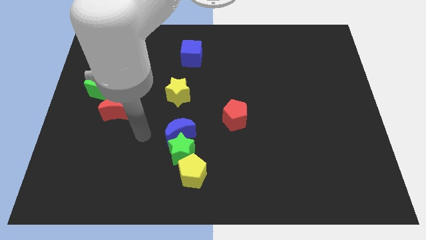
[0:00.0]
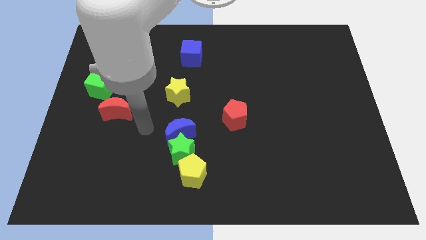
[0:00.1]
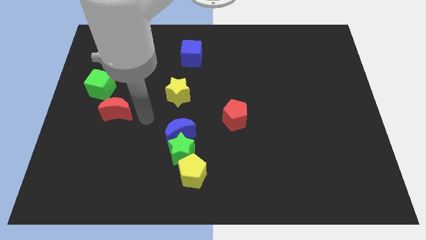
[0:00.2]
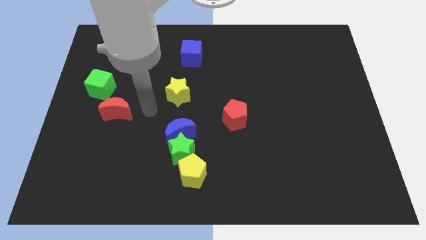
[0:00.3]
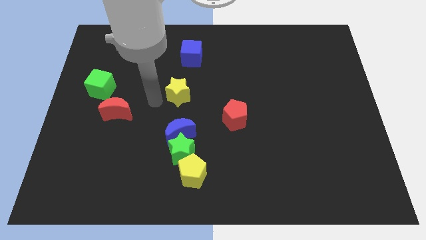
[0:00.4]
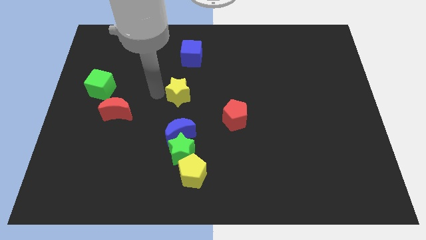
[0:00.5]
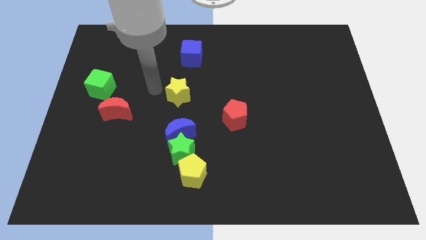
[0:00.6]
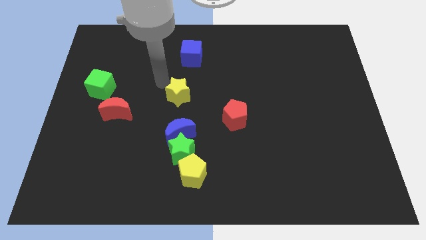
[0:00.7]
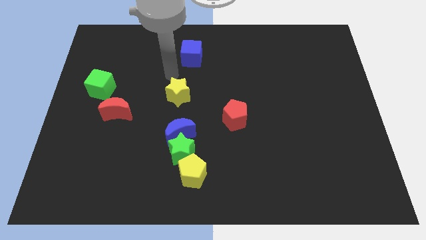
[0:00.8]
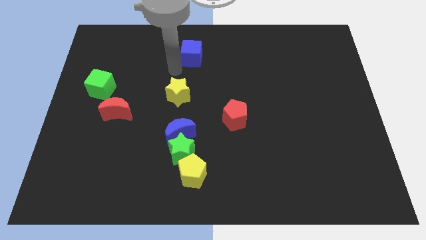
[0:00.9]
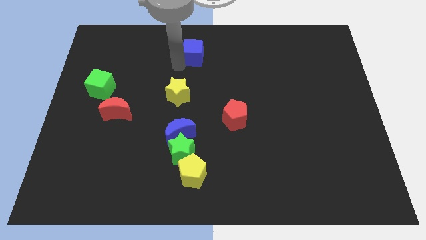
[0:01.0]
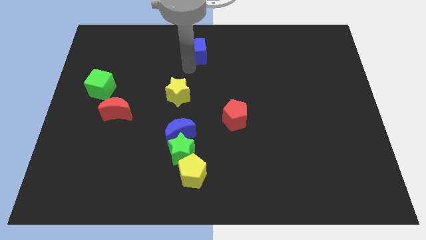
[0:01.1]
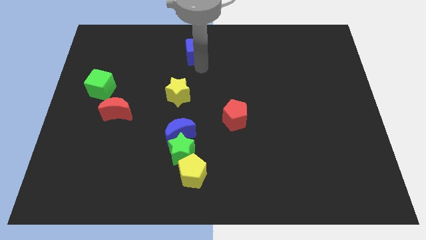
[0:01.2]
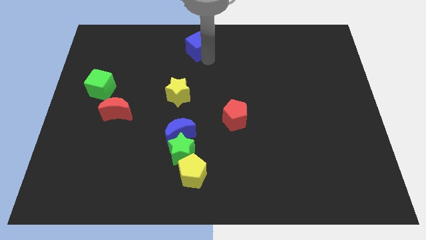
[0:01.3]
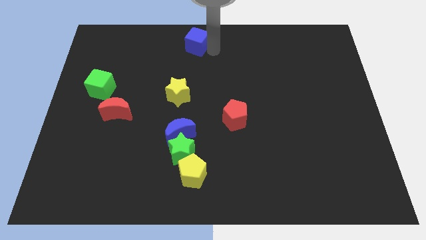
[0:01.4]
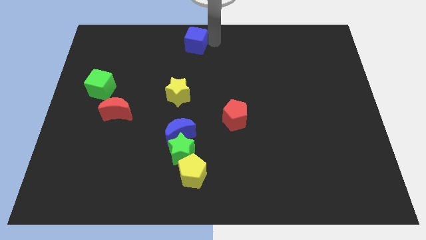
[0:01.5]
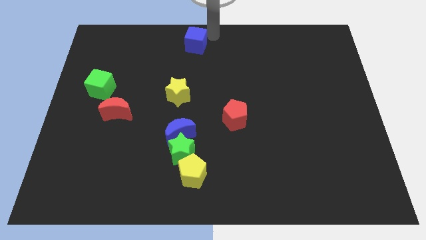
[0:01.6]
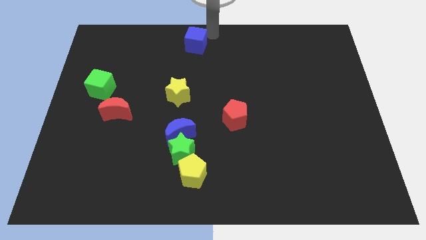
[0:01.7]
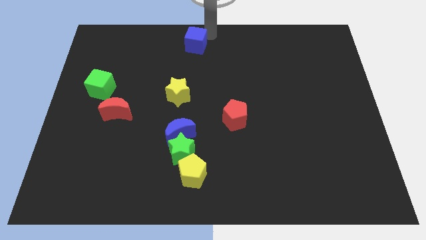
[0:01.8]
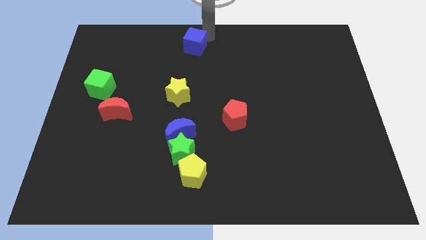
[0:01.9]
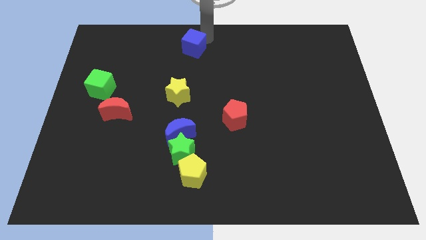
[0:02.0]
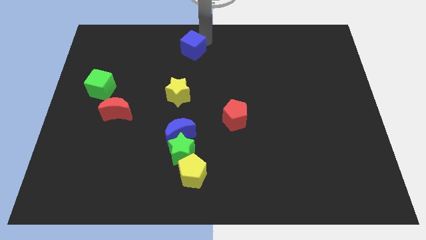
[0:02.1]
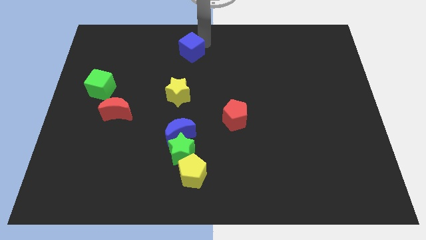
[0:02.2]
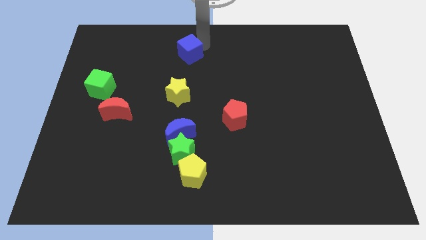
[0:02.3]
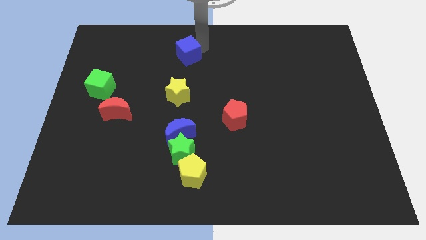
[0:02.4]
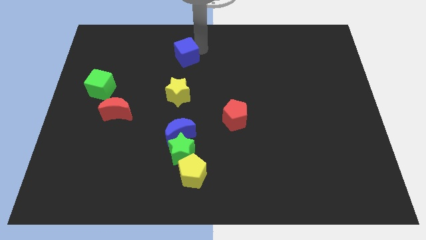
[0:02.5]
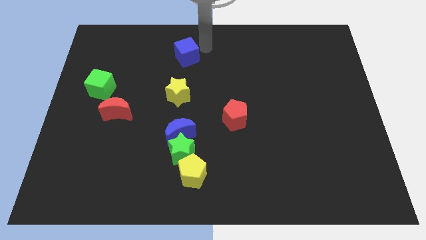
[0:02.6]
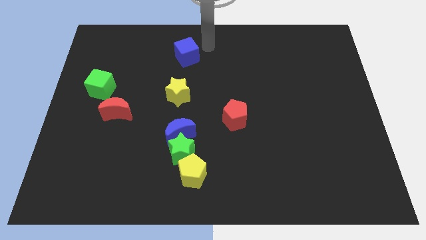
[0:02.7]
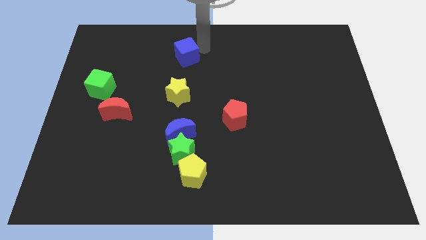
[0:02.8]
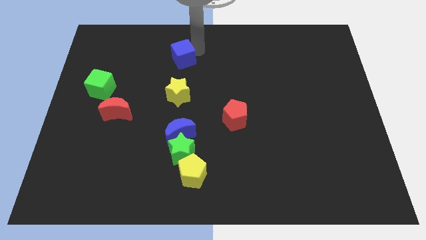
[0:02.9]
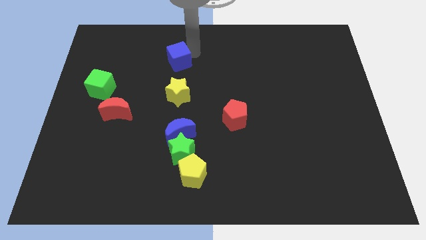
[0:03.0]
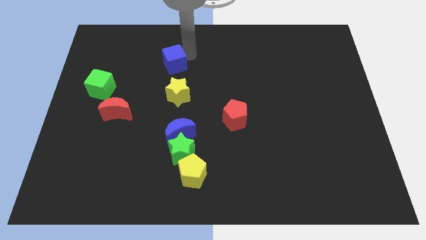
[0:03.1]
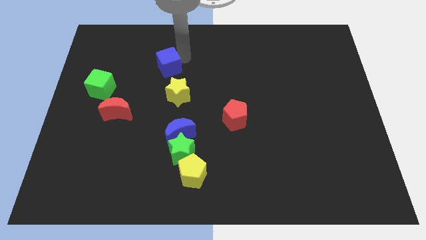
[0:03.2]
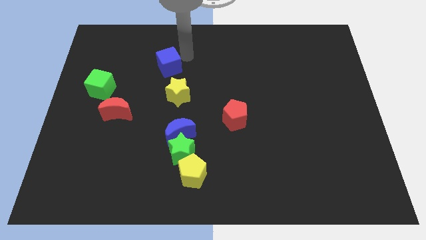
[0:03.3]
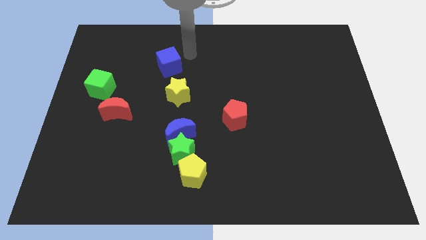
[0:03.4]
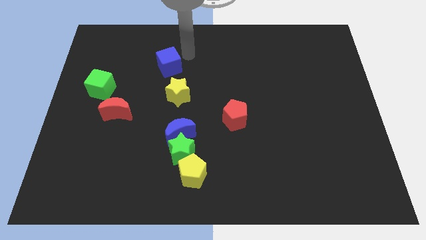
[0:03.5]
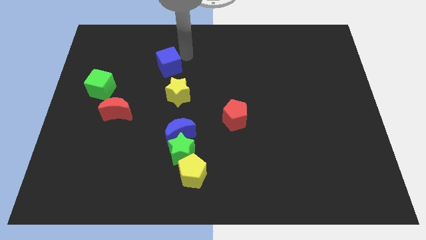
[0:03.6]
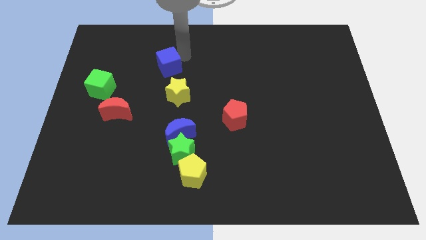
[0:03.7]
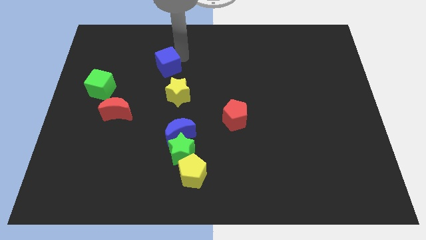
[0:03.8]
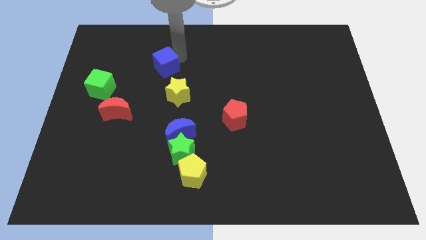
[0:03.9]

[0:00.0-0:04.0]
push the blue cube downwards and then to the left somewhat

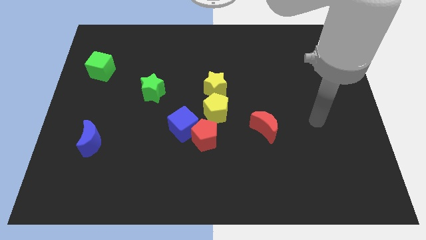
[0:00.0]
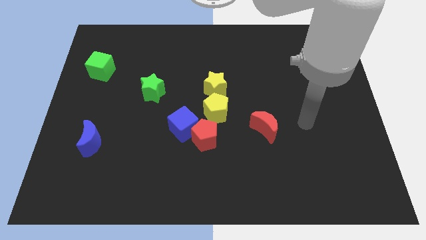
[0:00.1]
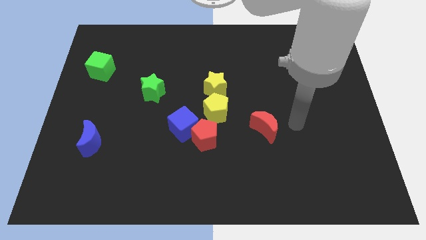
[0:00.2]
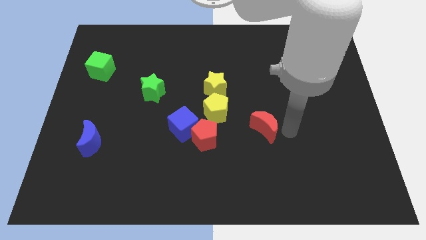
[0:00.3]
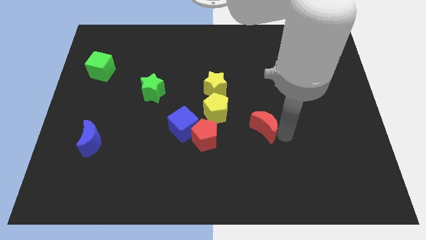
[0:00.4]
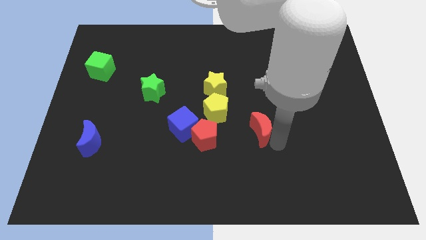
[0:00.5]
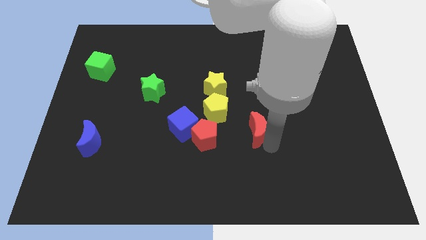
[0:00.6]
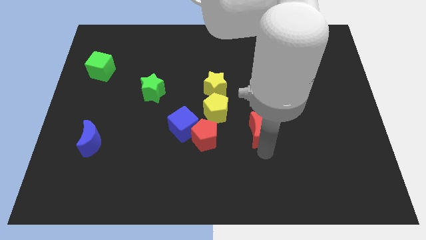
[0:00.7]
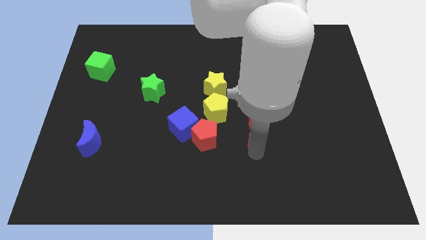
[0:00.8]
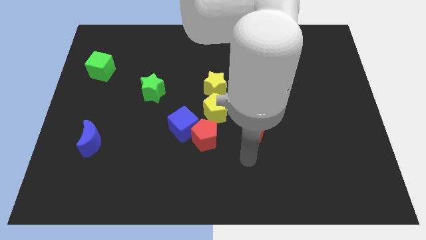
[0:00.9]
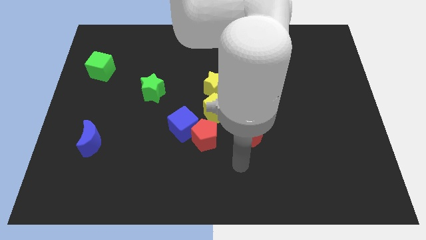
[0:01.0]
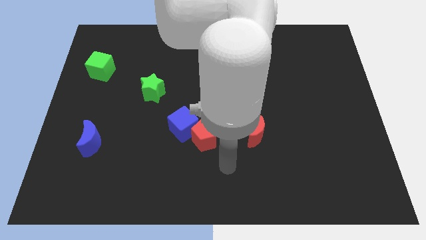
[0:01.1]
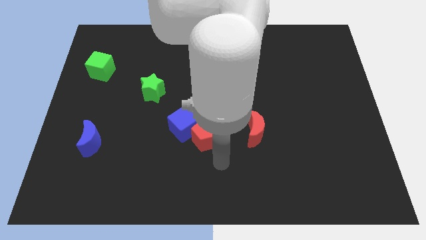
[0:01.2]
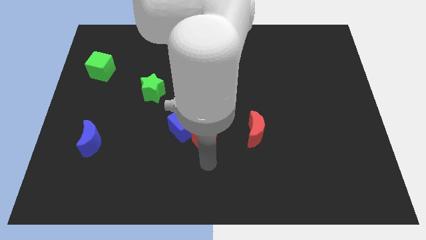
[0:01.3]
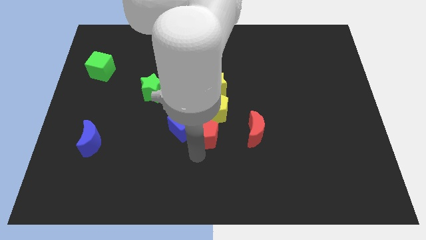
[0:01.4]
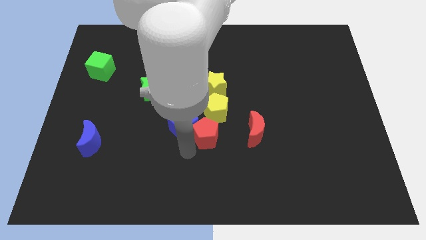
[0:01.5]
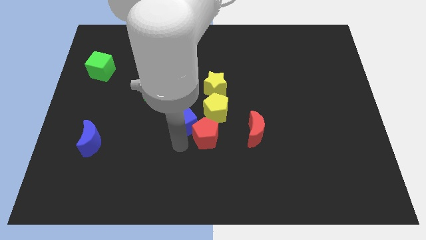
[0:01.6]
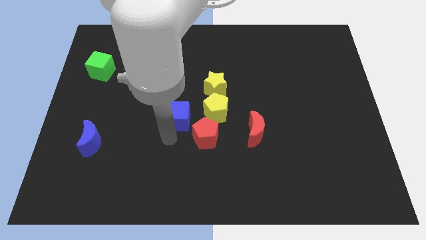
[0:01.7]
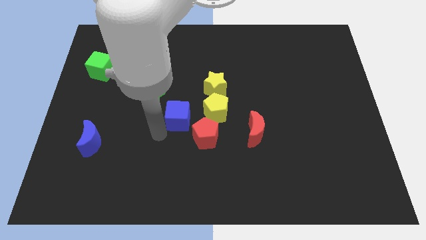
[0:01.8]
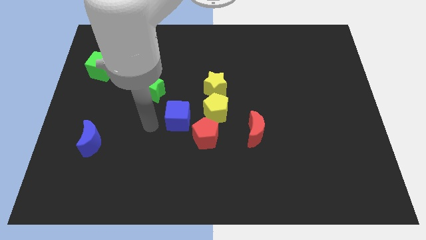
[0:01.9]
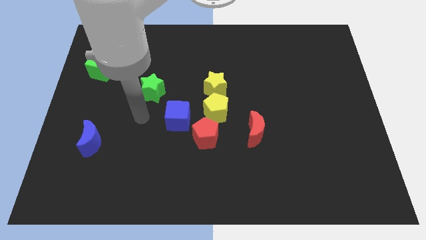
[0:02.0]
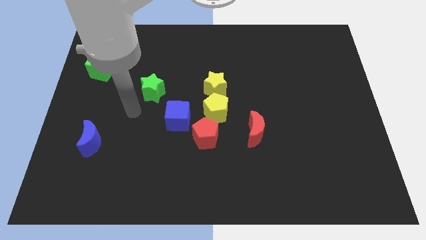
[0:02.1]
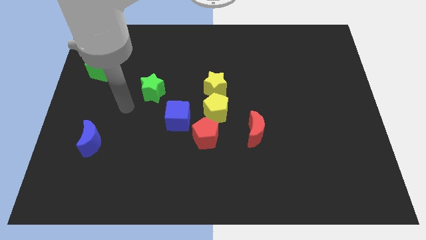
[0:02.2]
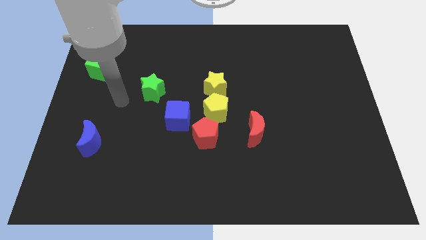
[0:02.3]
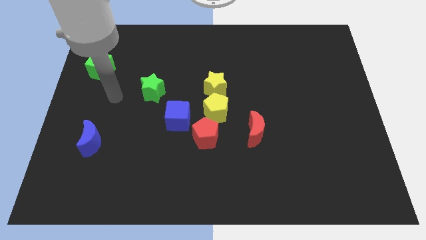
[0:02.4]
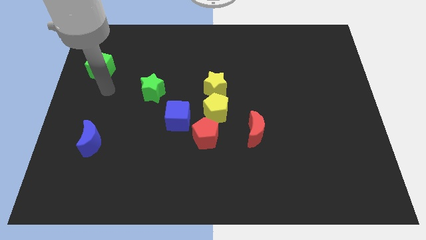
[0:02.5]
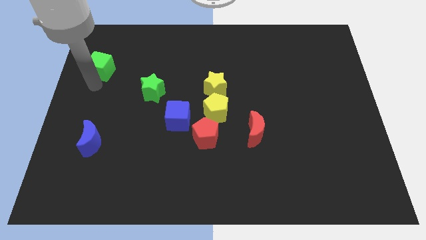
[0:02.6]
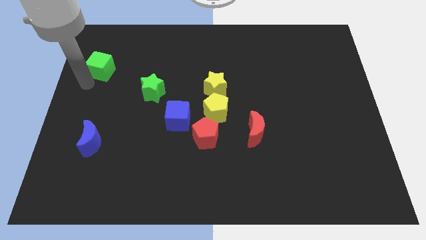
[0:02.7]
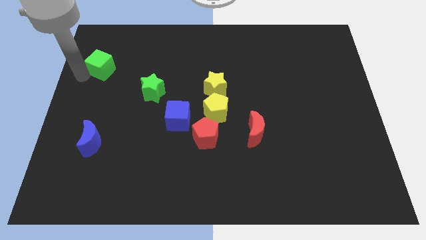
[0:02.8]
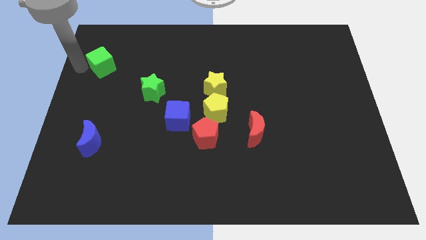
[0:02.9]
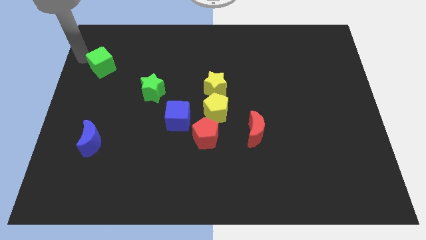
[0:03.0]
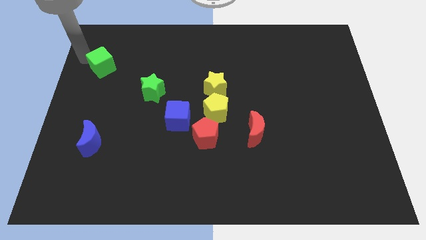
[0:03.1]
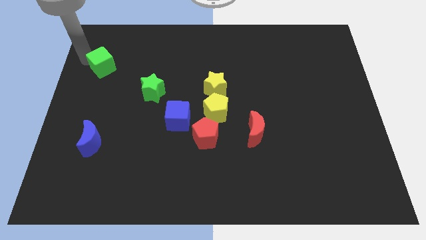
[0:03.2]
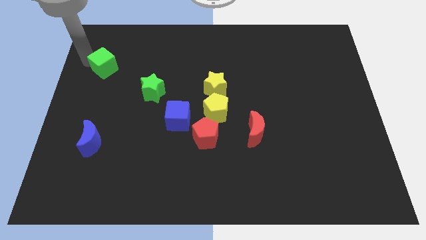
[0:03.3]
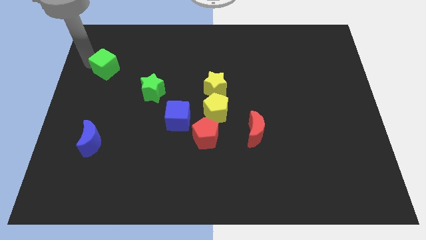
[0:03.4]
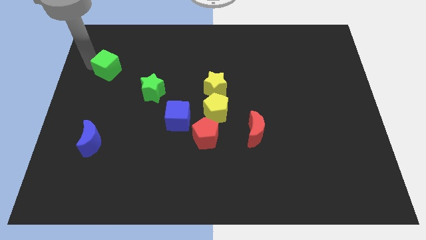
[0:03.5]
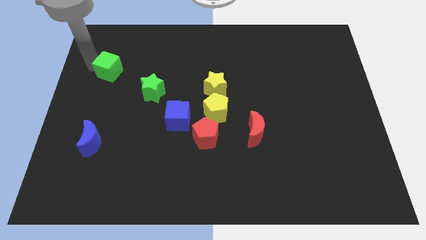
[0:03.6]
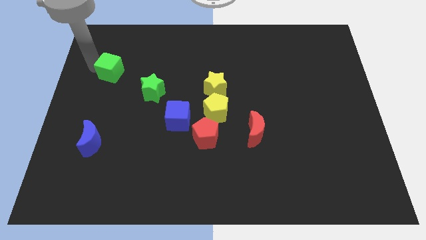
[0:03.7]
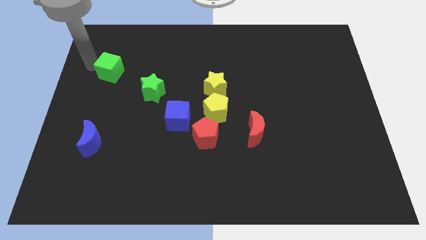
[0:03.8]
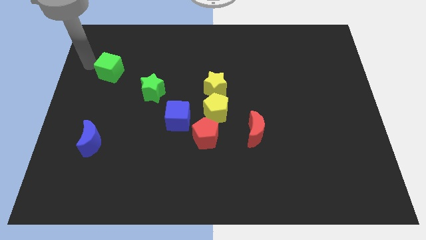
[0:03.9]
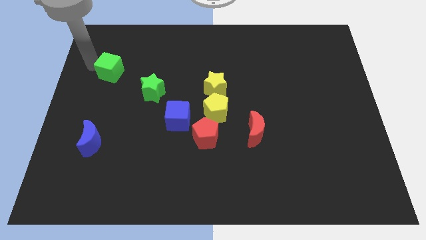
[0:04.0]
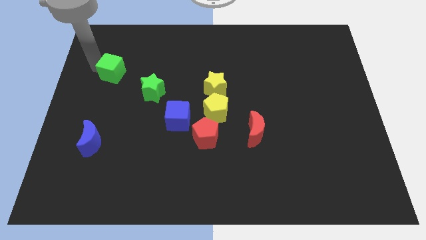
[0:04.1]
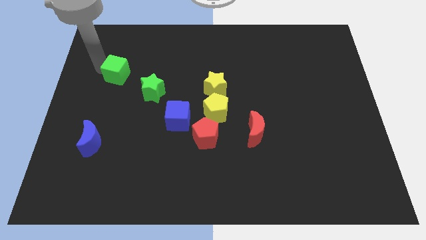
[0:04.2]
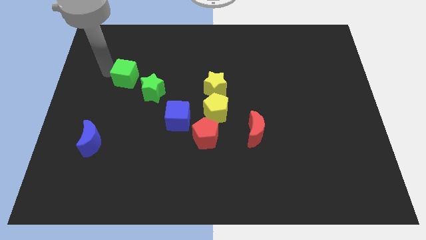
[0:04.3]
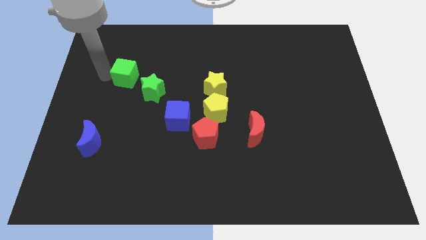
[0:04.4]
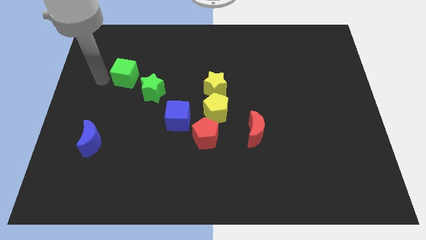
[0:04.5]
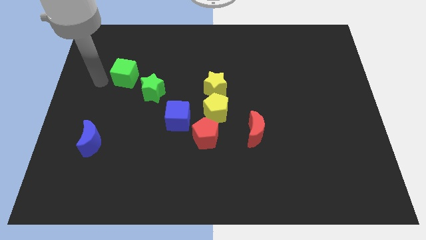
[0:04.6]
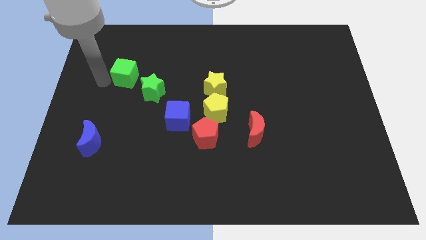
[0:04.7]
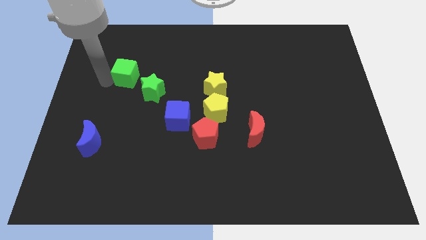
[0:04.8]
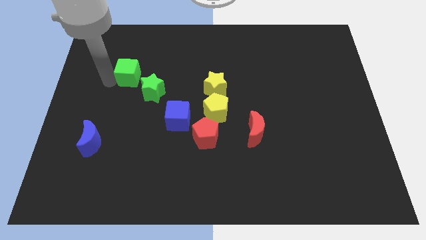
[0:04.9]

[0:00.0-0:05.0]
move the green cube right a little
